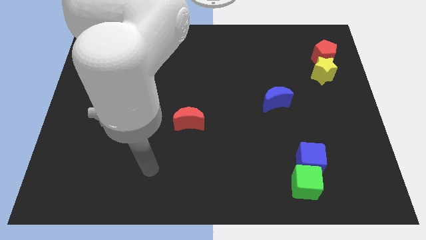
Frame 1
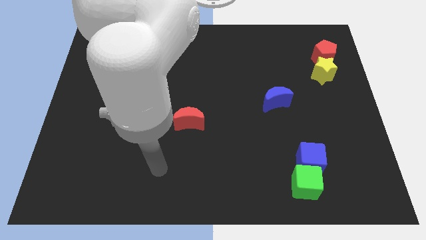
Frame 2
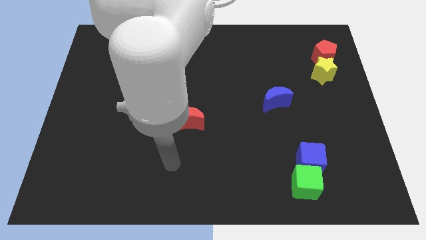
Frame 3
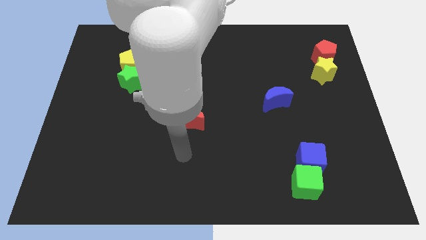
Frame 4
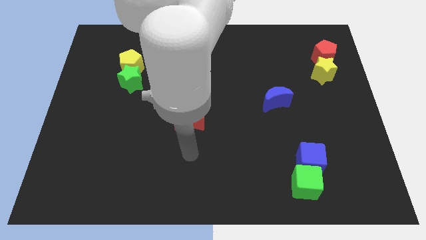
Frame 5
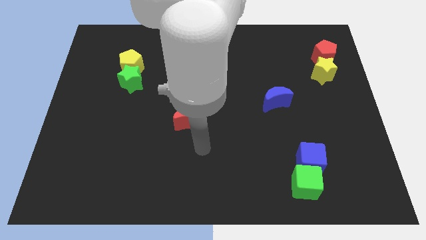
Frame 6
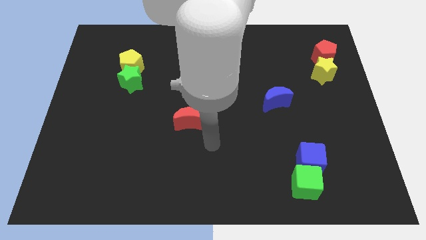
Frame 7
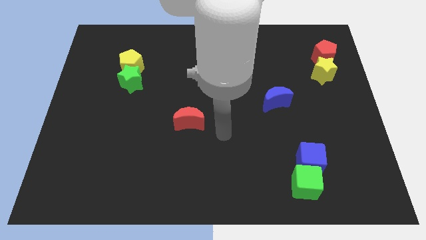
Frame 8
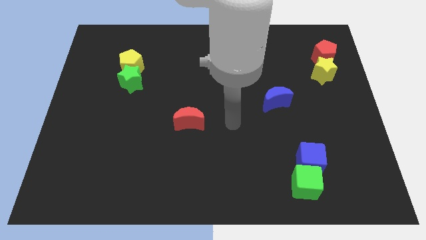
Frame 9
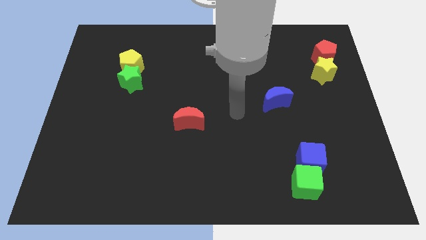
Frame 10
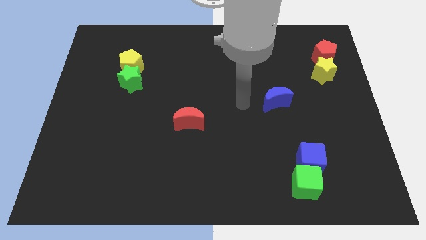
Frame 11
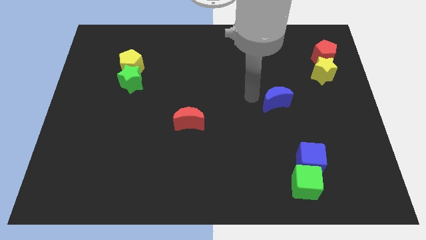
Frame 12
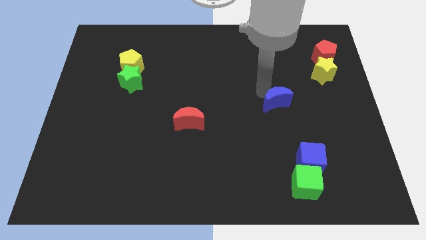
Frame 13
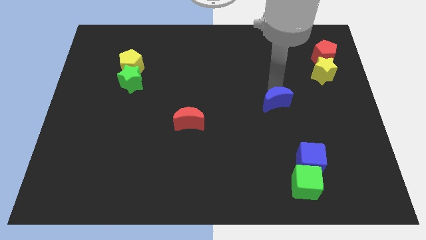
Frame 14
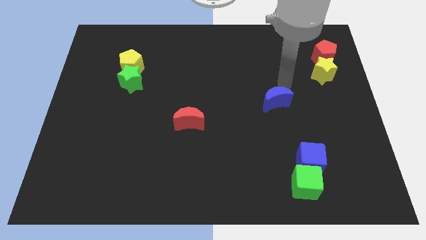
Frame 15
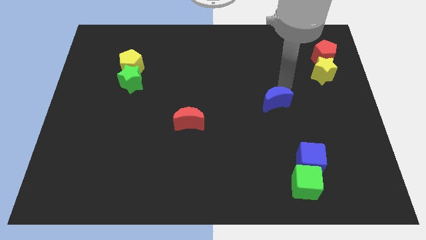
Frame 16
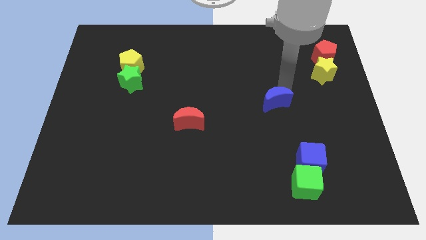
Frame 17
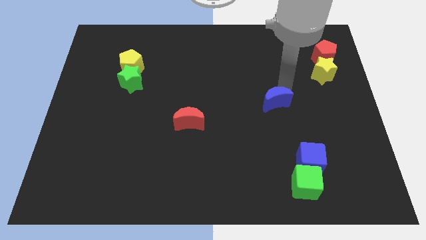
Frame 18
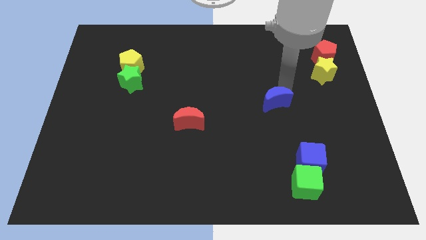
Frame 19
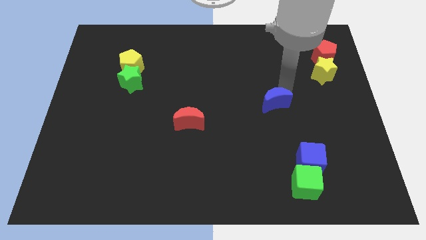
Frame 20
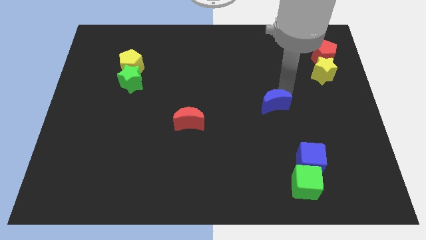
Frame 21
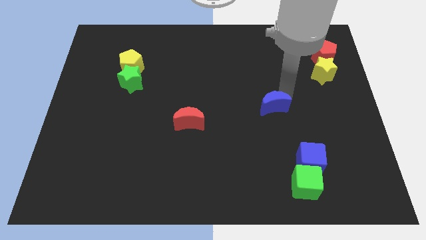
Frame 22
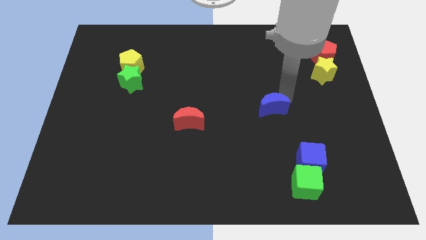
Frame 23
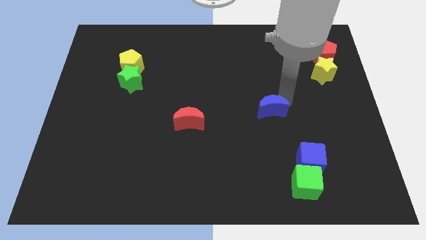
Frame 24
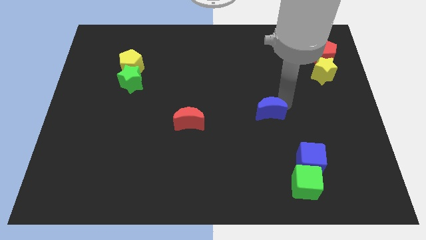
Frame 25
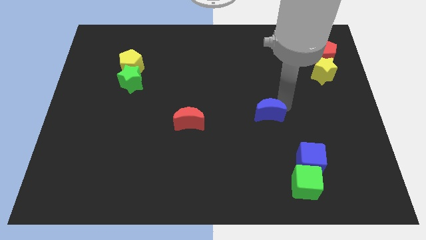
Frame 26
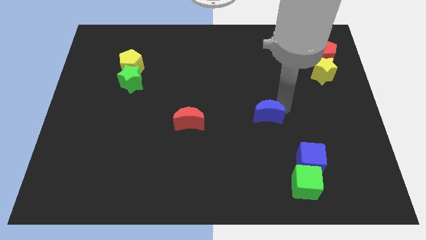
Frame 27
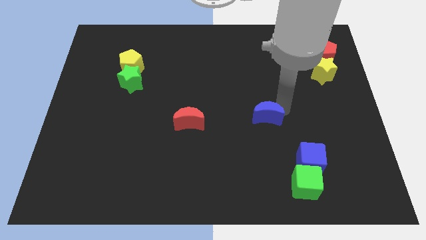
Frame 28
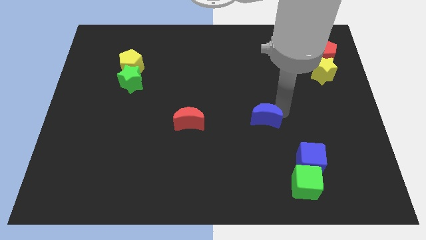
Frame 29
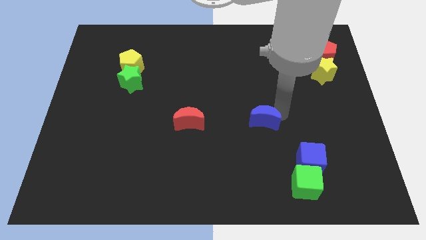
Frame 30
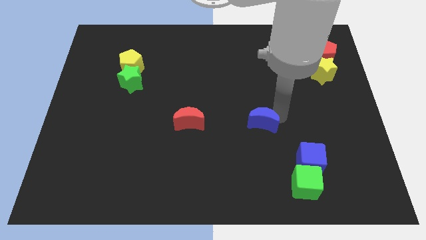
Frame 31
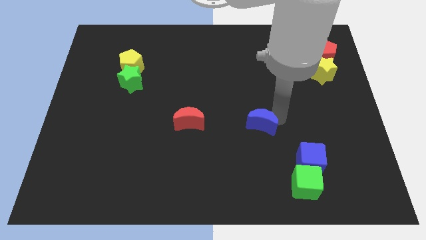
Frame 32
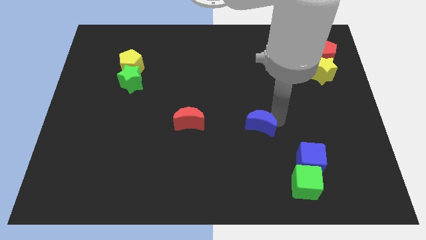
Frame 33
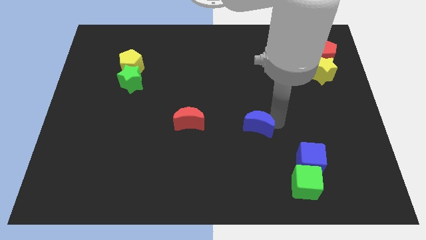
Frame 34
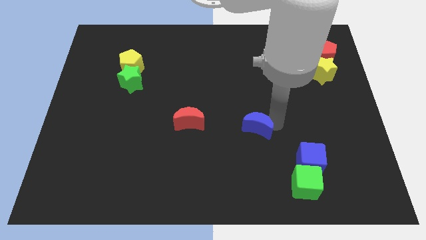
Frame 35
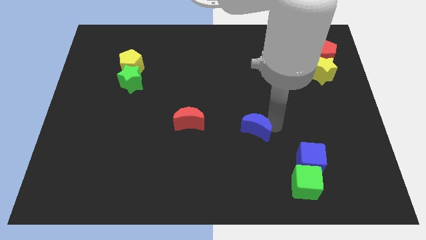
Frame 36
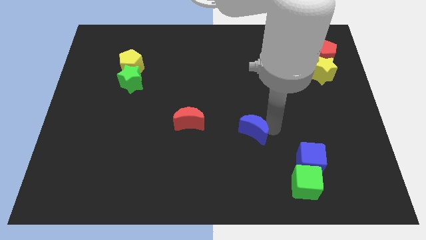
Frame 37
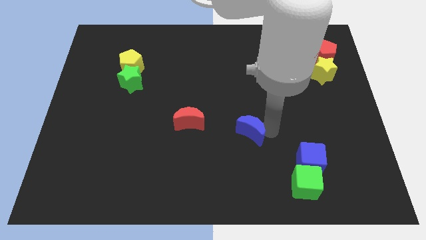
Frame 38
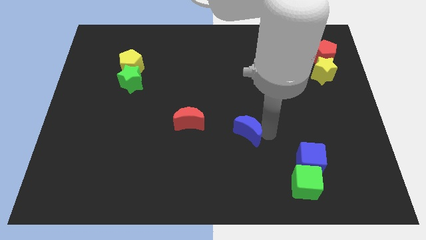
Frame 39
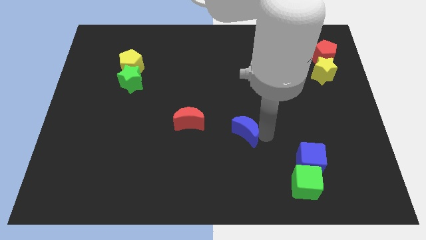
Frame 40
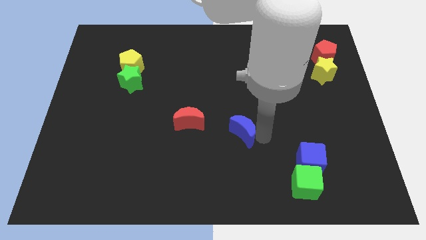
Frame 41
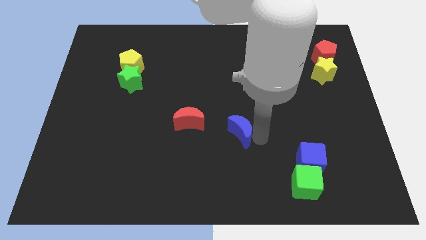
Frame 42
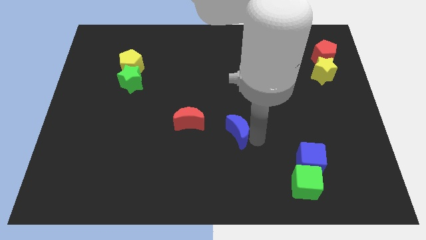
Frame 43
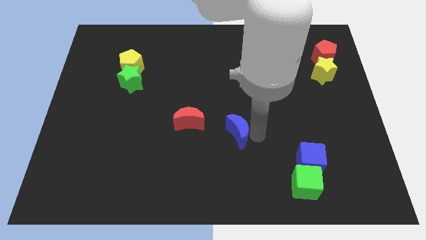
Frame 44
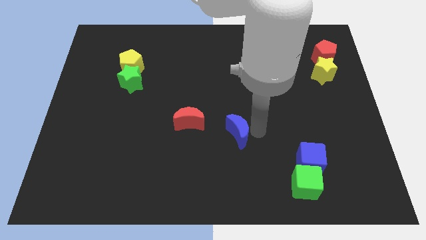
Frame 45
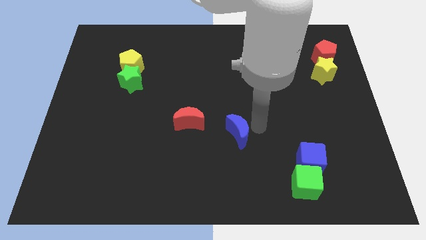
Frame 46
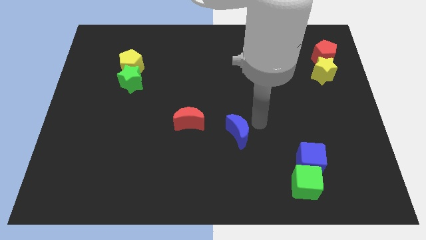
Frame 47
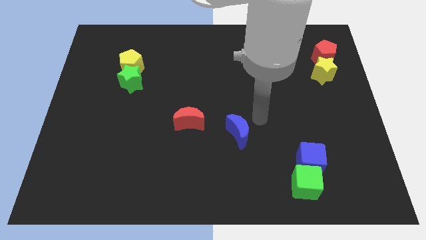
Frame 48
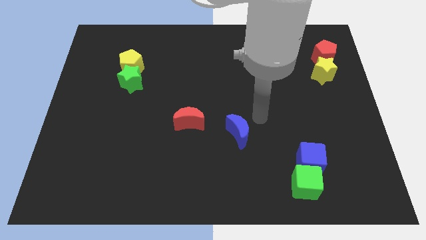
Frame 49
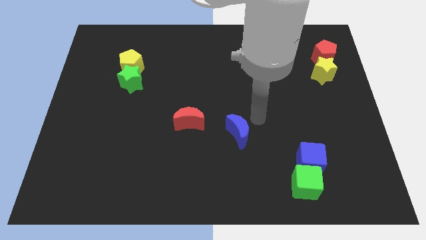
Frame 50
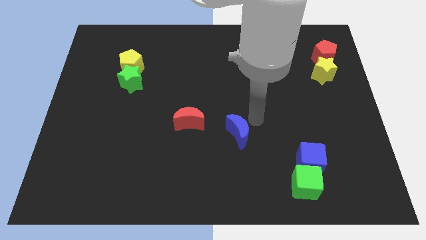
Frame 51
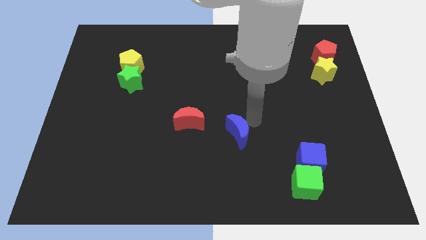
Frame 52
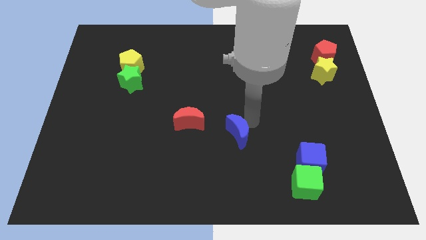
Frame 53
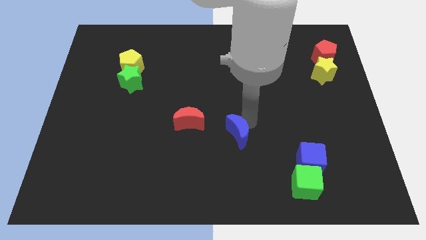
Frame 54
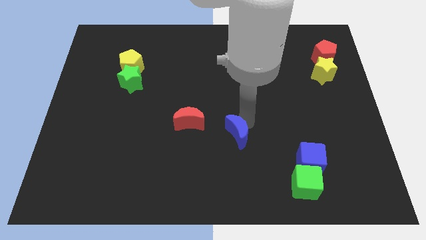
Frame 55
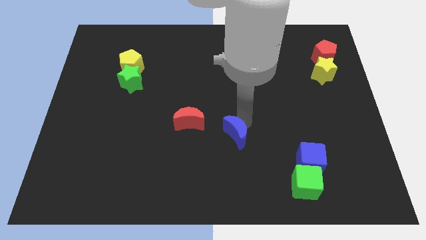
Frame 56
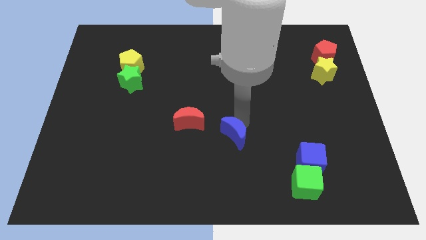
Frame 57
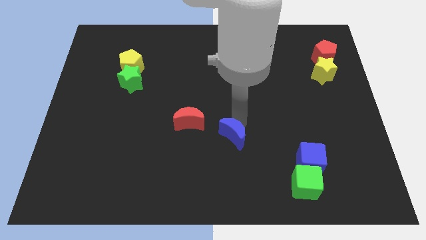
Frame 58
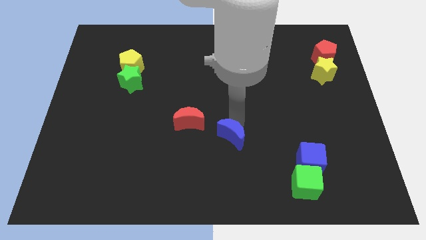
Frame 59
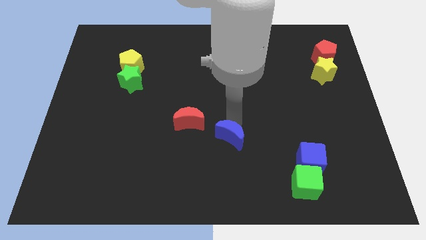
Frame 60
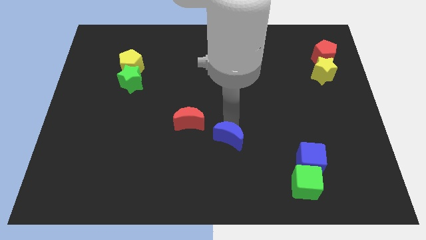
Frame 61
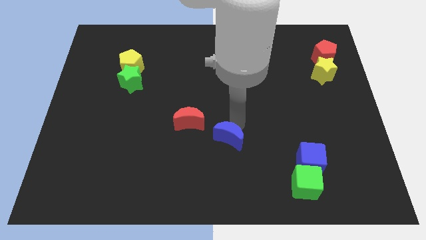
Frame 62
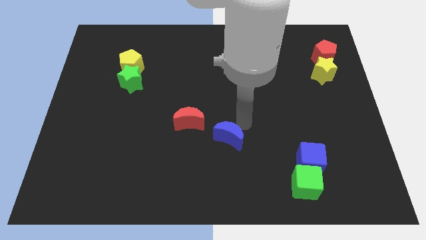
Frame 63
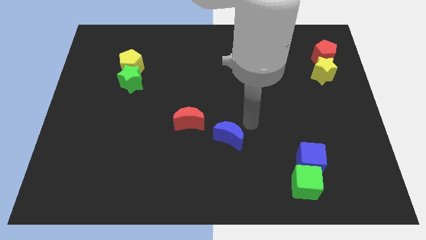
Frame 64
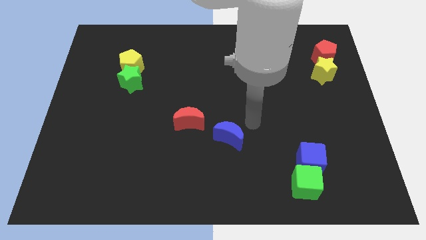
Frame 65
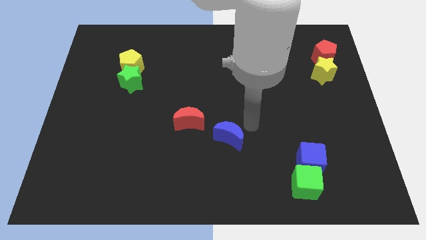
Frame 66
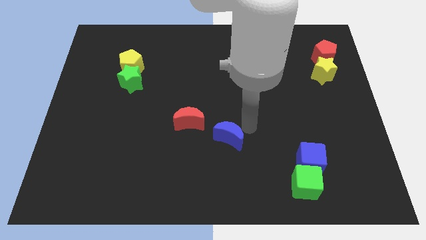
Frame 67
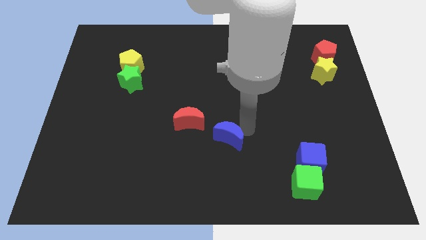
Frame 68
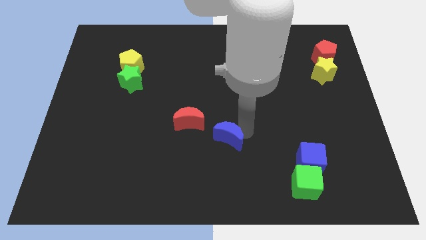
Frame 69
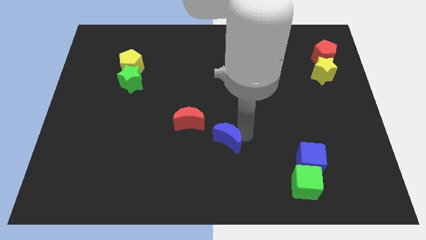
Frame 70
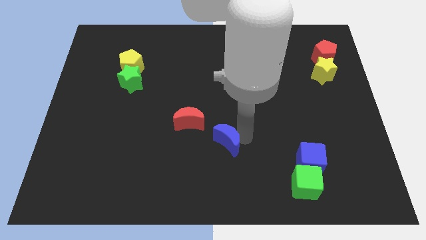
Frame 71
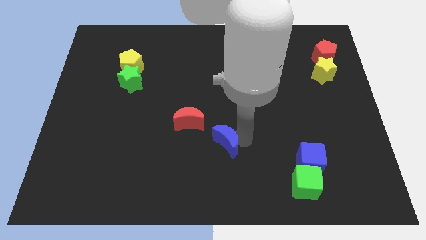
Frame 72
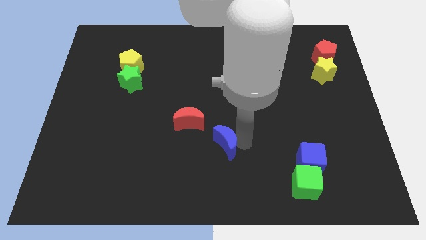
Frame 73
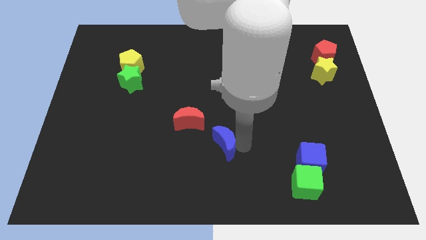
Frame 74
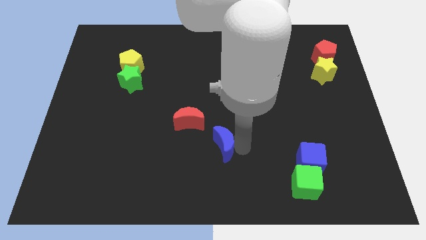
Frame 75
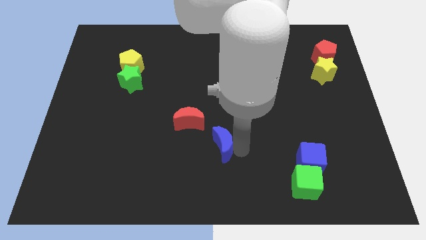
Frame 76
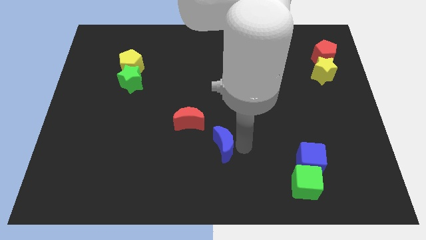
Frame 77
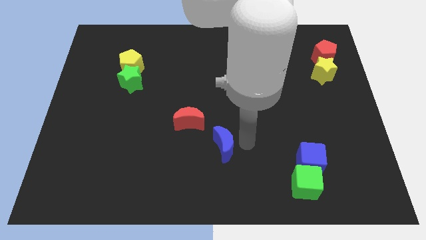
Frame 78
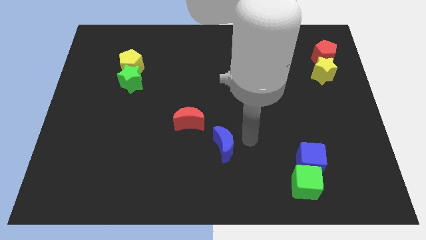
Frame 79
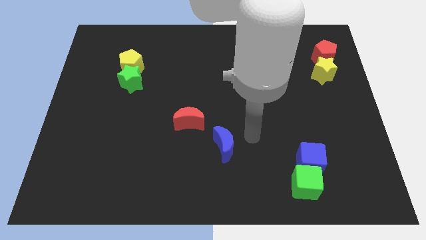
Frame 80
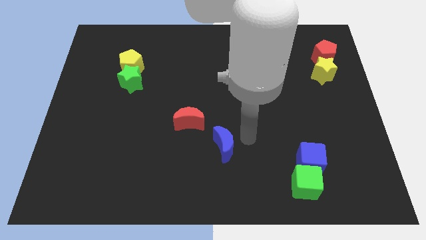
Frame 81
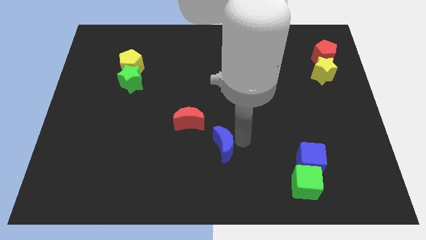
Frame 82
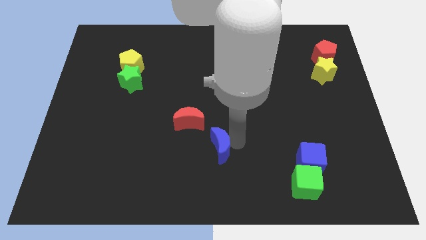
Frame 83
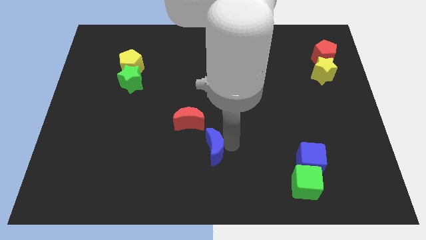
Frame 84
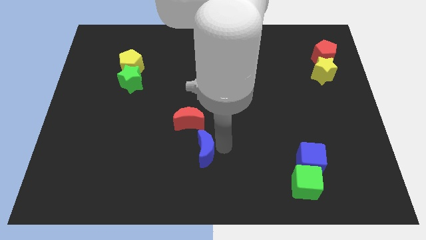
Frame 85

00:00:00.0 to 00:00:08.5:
move the blue moon below the red moon
